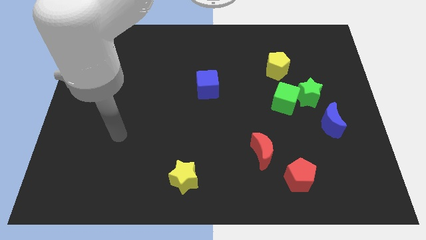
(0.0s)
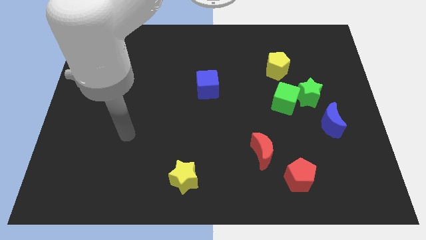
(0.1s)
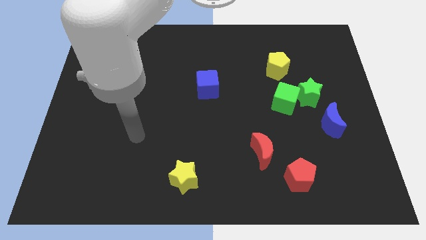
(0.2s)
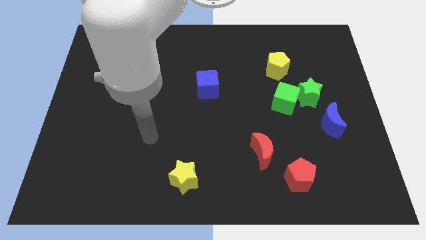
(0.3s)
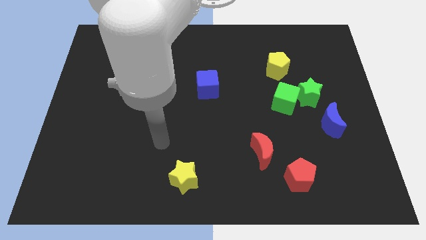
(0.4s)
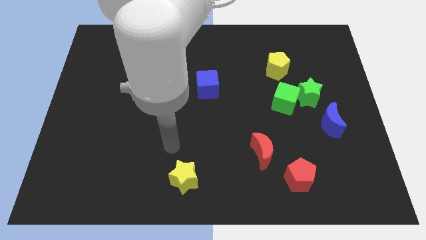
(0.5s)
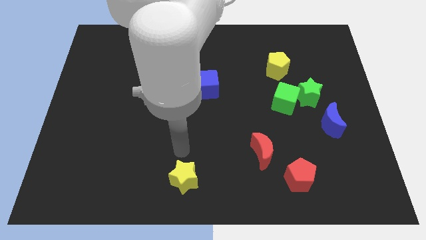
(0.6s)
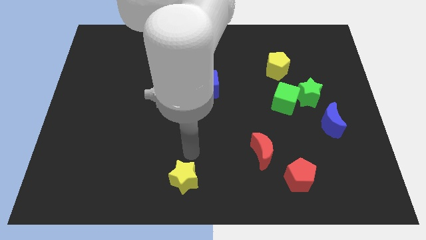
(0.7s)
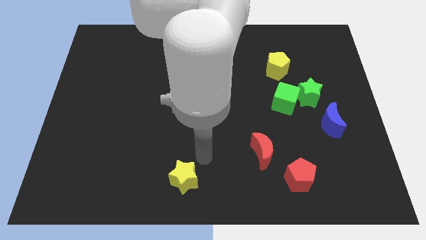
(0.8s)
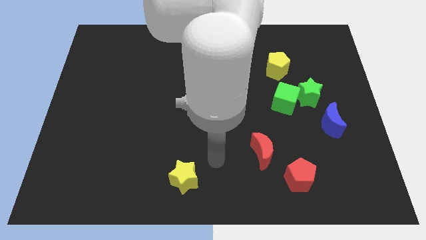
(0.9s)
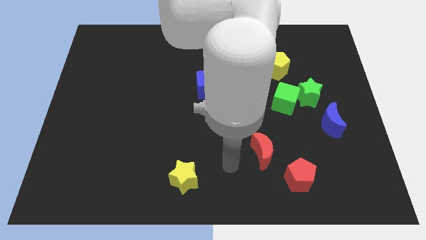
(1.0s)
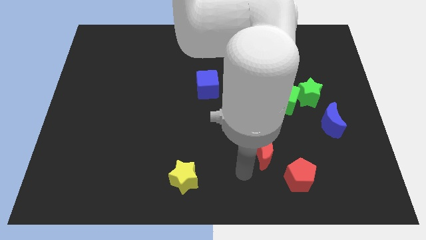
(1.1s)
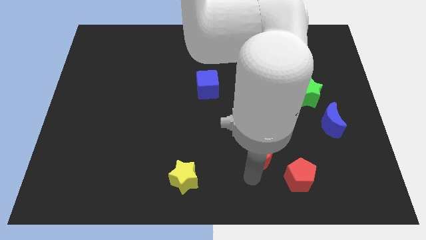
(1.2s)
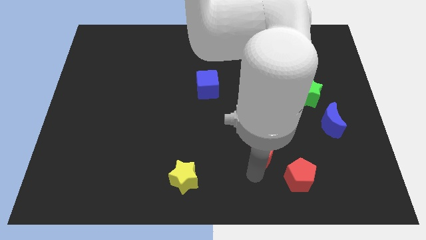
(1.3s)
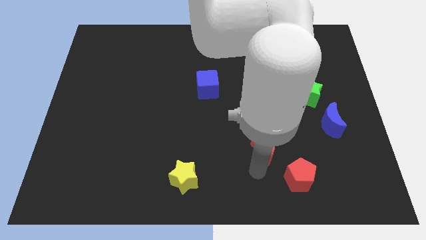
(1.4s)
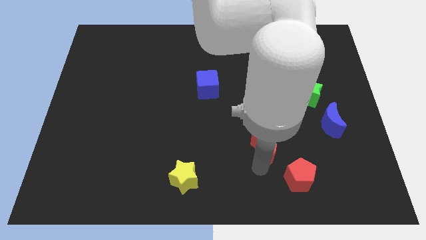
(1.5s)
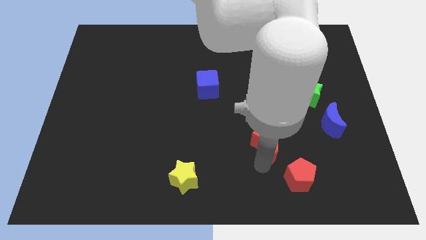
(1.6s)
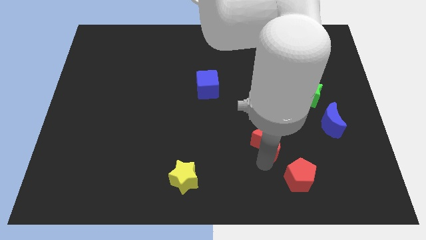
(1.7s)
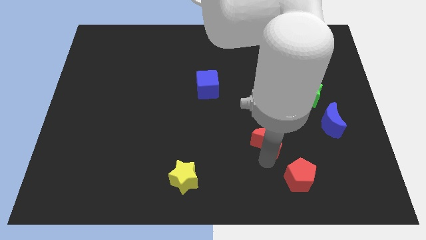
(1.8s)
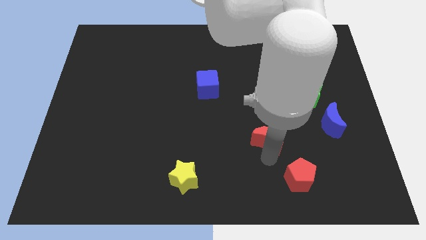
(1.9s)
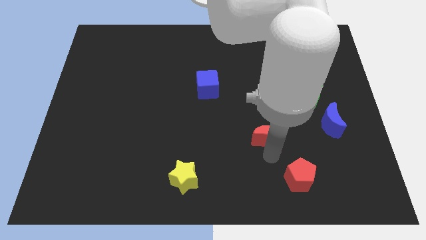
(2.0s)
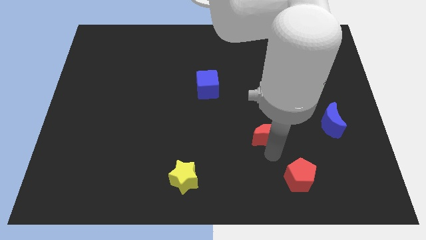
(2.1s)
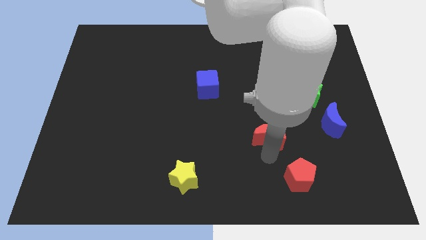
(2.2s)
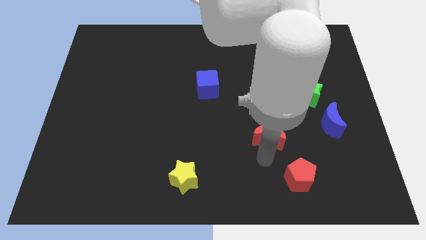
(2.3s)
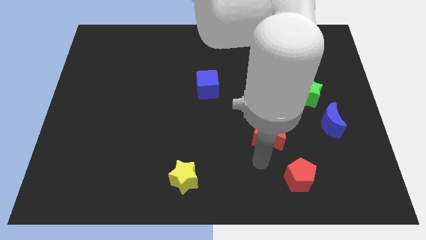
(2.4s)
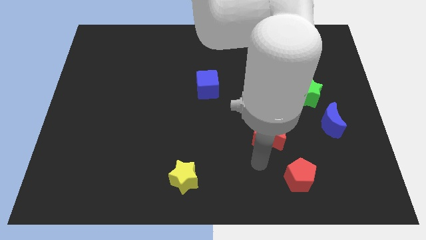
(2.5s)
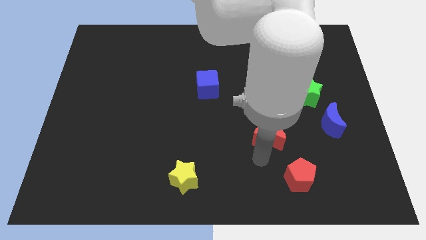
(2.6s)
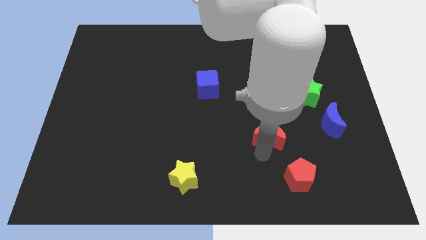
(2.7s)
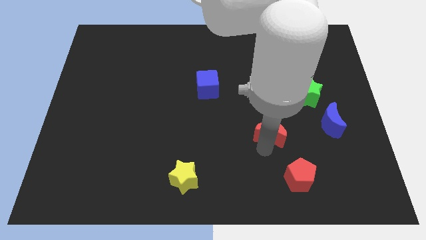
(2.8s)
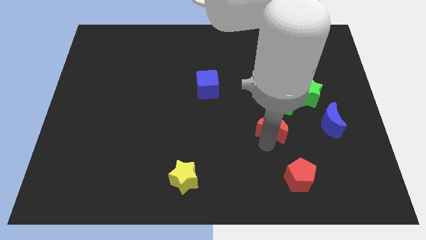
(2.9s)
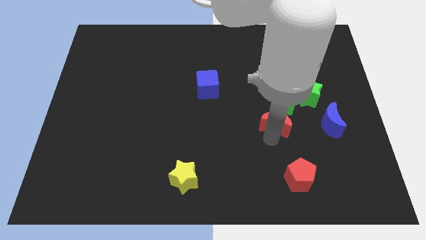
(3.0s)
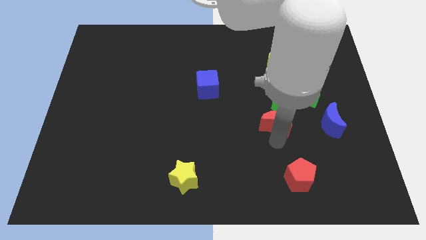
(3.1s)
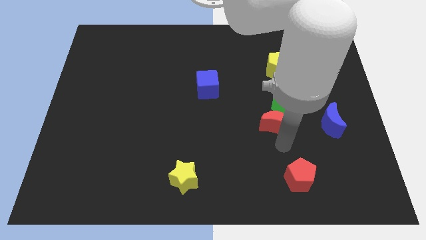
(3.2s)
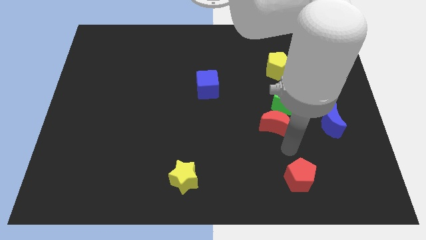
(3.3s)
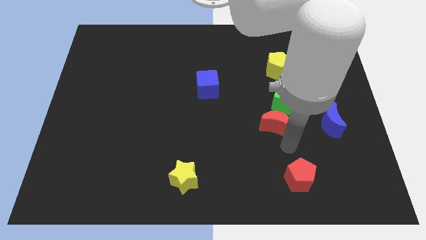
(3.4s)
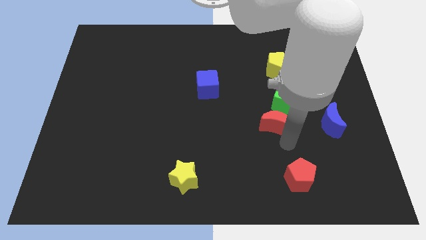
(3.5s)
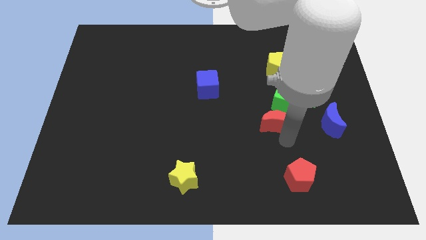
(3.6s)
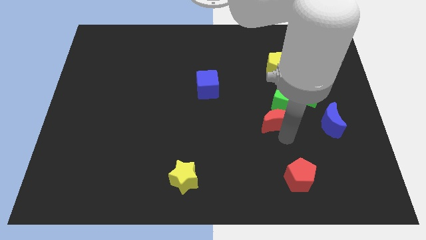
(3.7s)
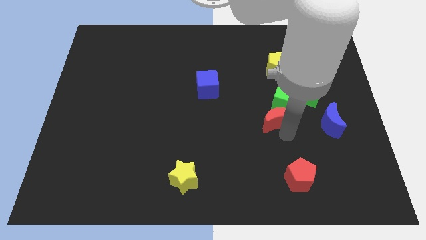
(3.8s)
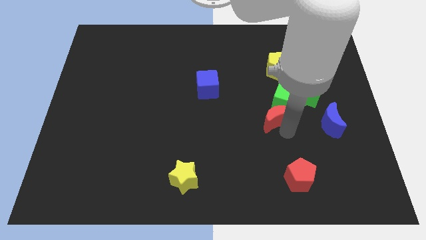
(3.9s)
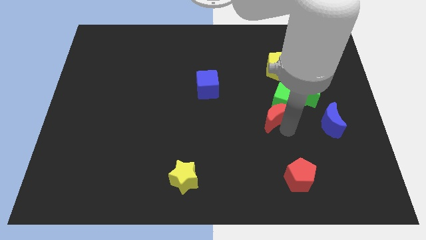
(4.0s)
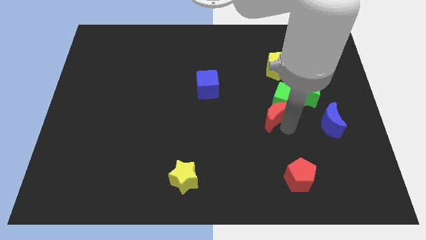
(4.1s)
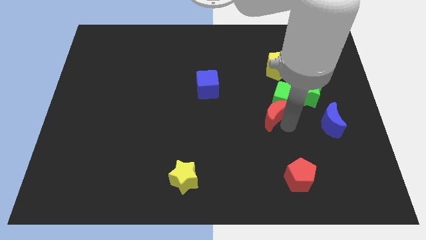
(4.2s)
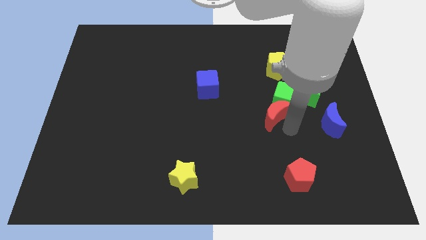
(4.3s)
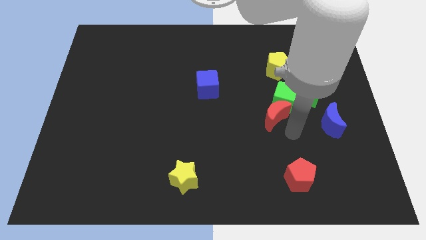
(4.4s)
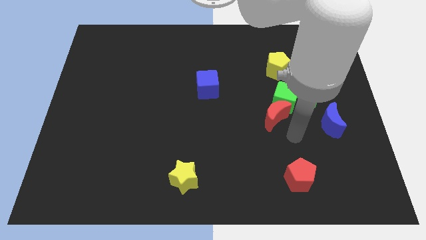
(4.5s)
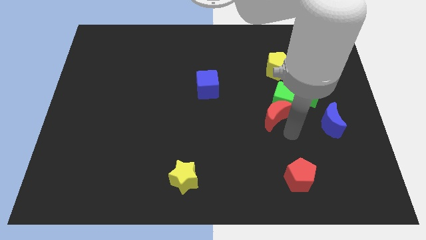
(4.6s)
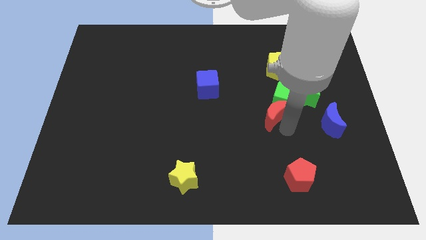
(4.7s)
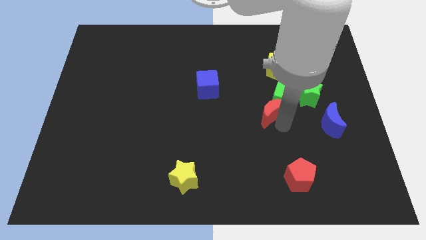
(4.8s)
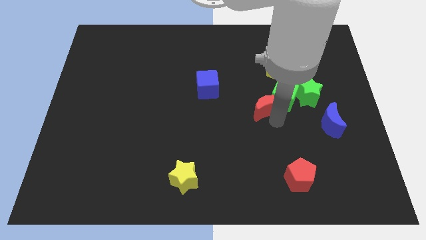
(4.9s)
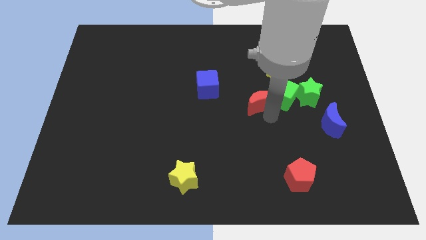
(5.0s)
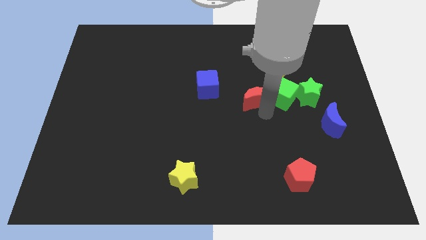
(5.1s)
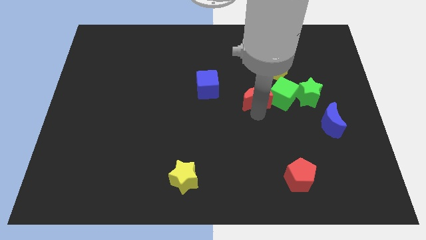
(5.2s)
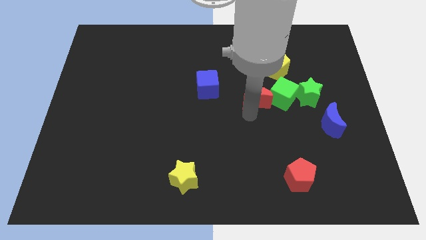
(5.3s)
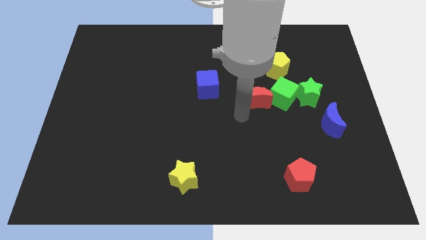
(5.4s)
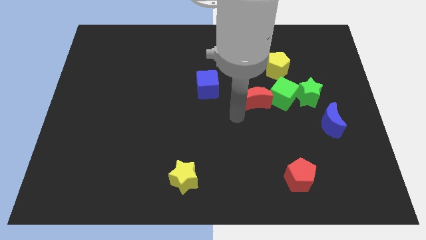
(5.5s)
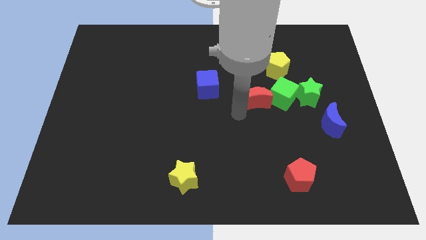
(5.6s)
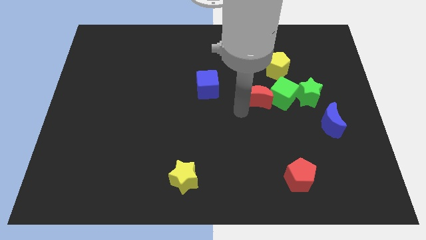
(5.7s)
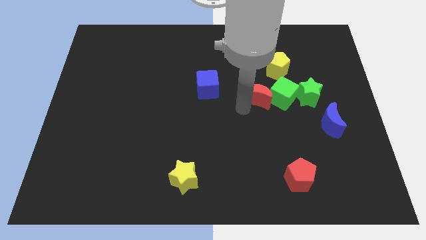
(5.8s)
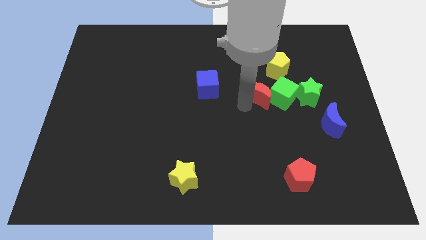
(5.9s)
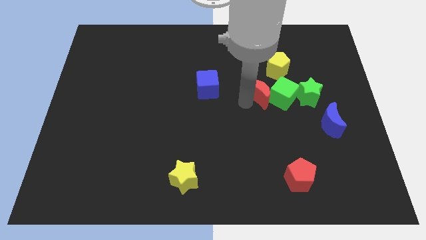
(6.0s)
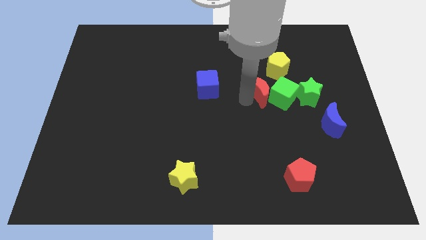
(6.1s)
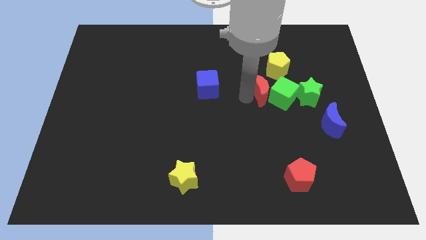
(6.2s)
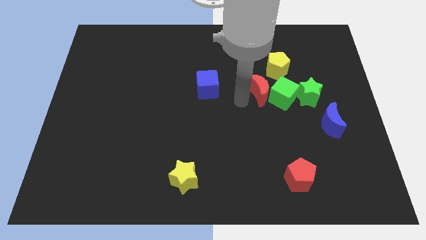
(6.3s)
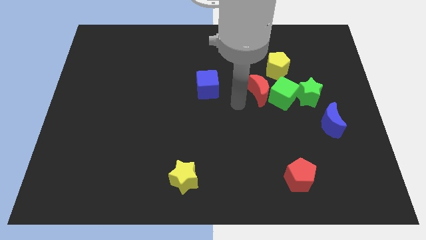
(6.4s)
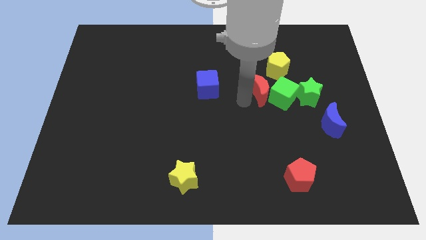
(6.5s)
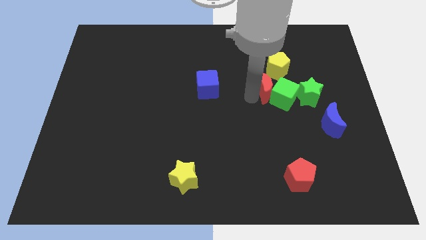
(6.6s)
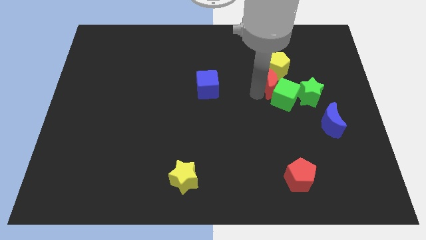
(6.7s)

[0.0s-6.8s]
put the red moon diagonally up and to the left of the green star
